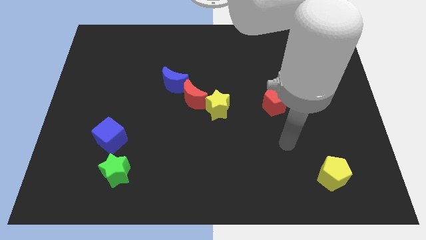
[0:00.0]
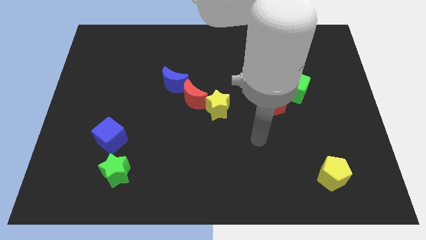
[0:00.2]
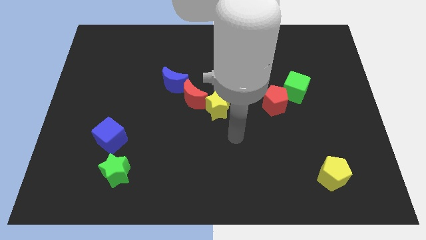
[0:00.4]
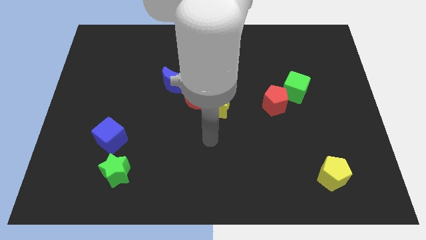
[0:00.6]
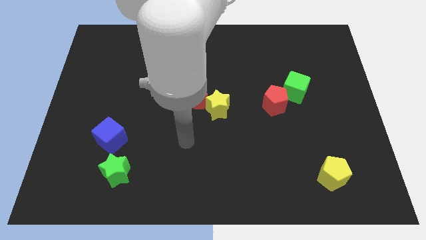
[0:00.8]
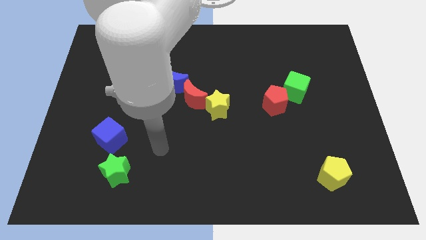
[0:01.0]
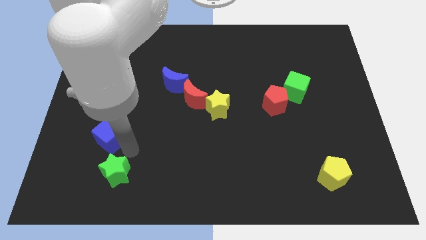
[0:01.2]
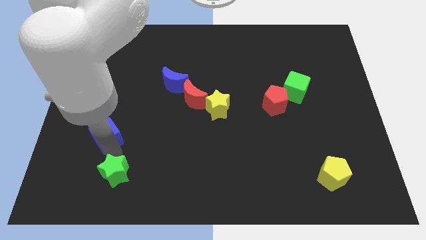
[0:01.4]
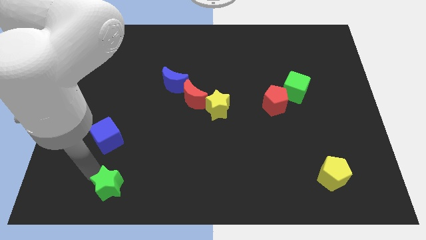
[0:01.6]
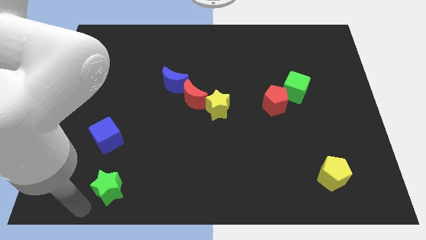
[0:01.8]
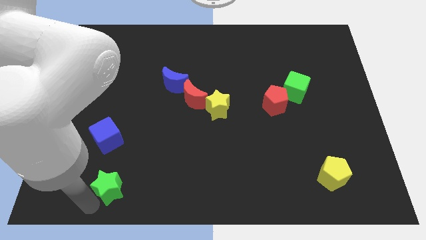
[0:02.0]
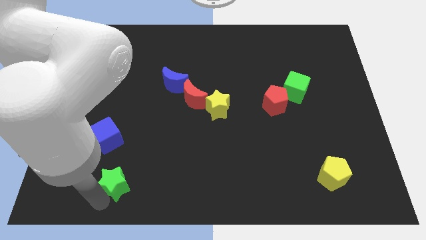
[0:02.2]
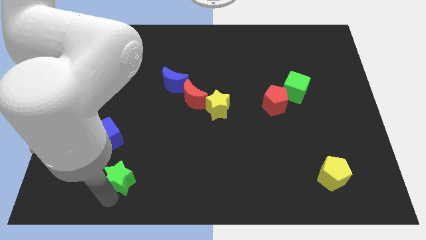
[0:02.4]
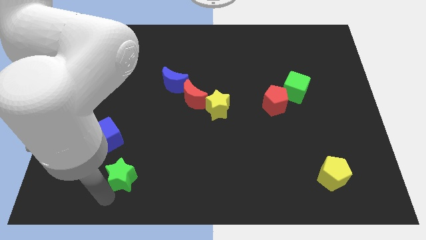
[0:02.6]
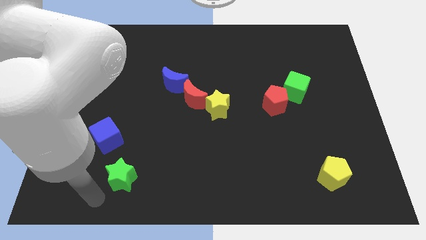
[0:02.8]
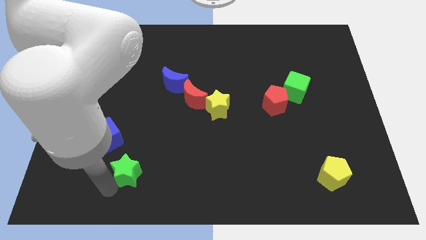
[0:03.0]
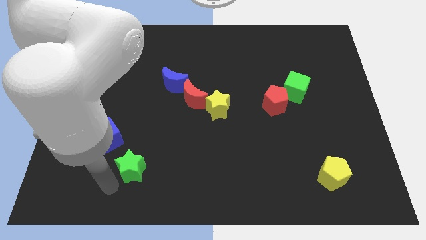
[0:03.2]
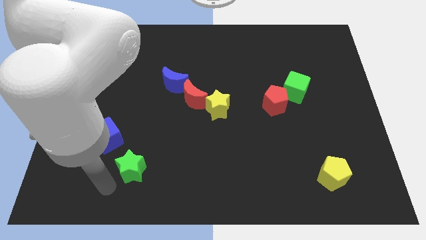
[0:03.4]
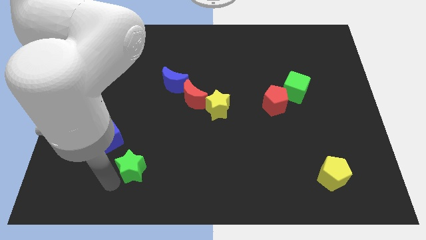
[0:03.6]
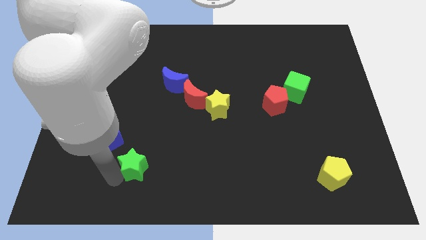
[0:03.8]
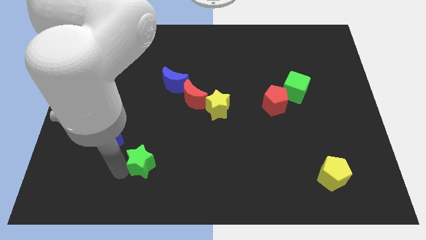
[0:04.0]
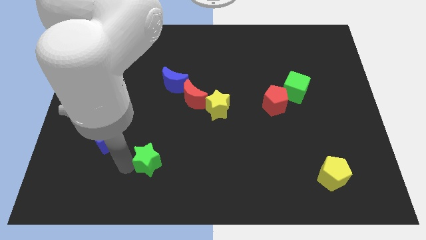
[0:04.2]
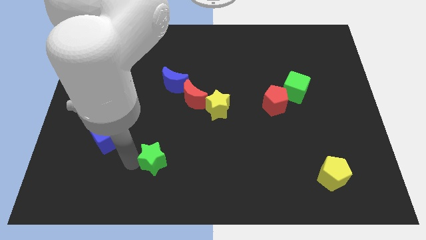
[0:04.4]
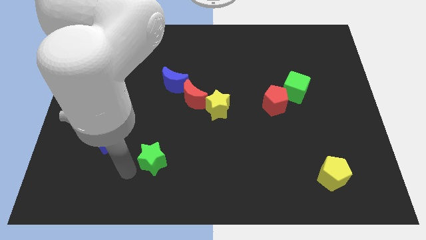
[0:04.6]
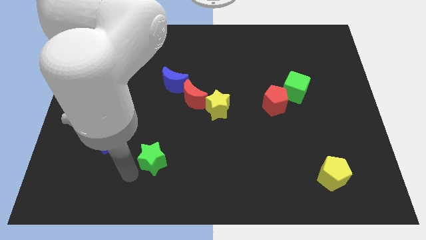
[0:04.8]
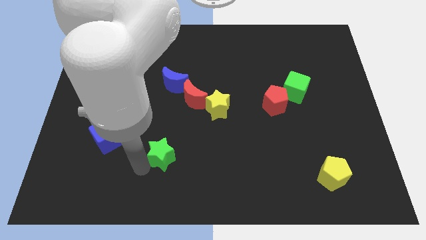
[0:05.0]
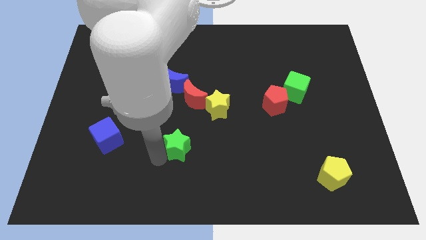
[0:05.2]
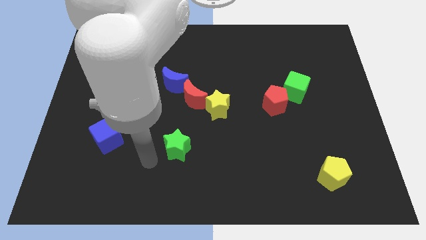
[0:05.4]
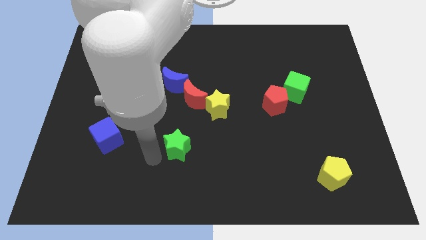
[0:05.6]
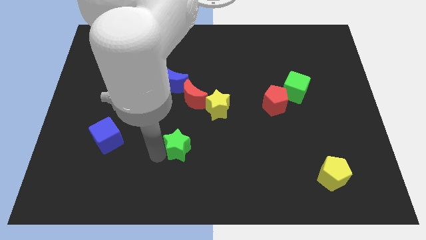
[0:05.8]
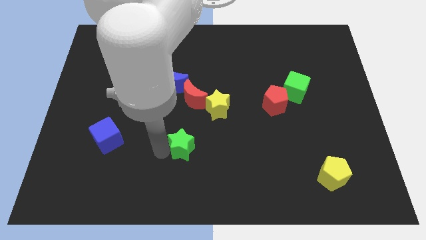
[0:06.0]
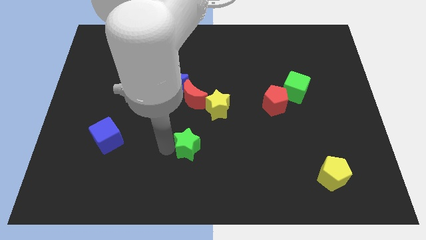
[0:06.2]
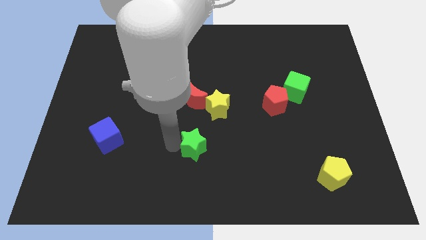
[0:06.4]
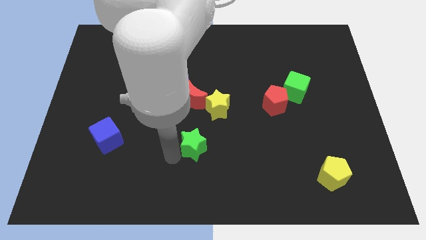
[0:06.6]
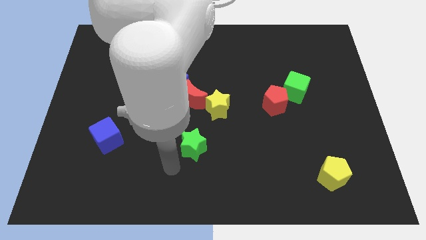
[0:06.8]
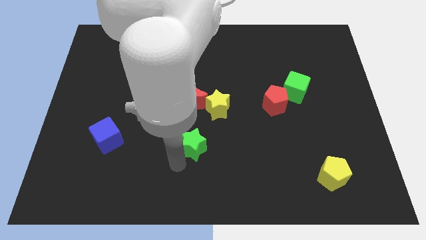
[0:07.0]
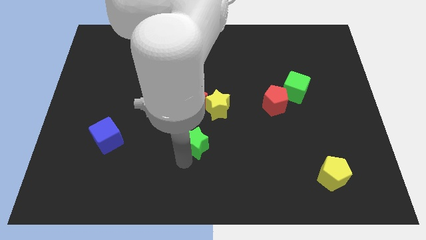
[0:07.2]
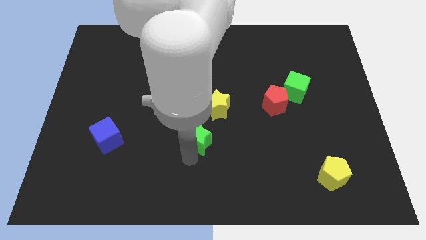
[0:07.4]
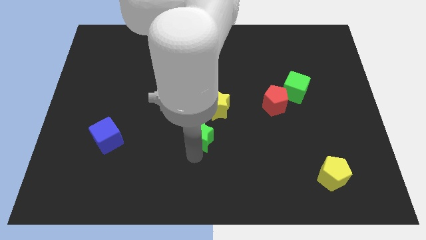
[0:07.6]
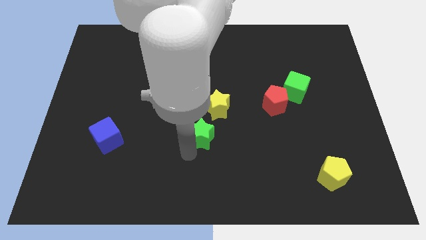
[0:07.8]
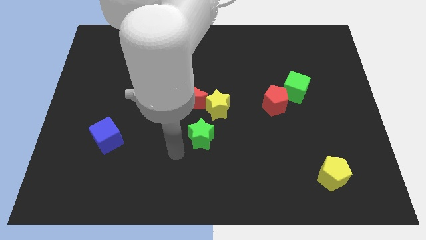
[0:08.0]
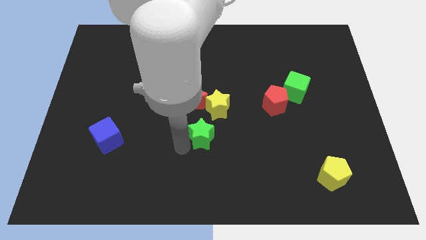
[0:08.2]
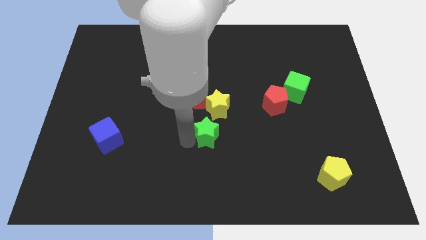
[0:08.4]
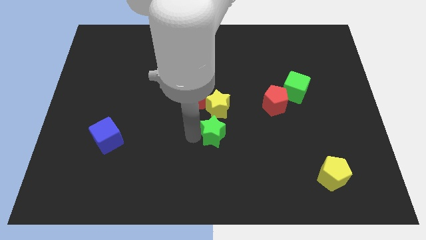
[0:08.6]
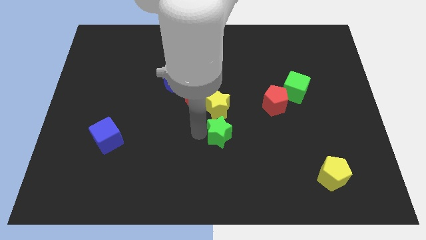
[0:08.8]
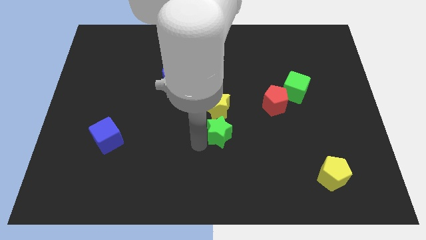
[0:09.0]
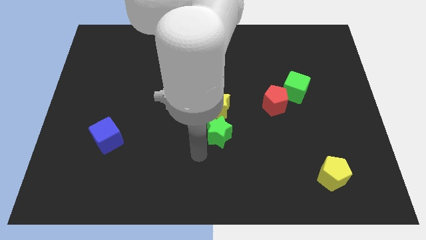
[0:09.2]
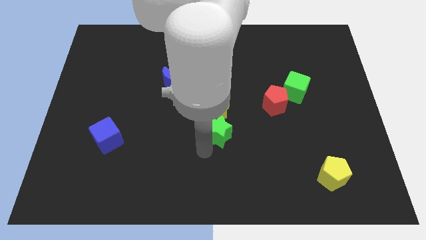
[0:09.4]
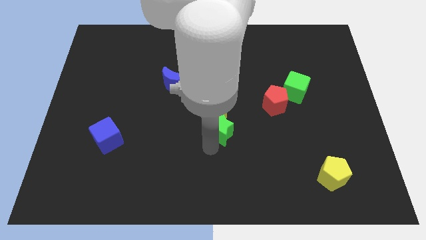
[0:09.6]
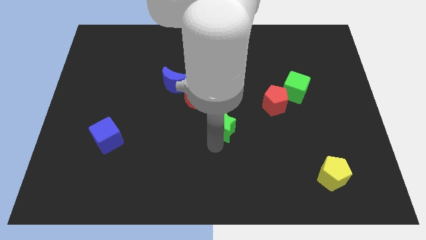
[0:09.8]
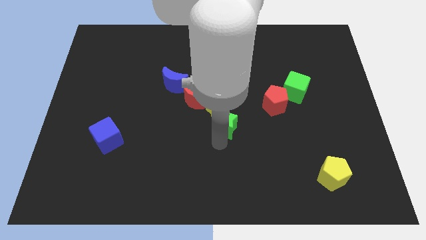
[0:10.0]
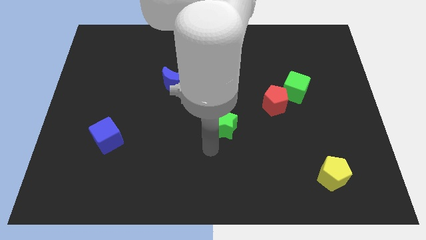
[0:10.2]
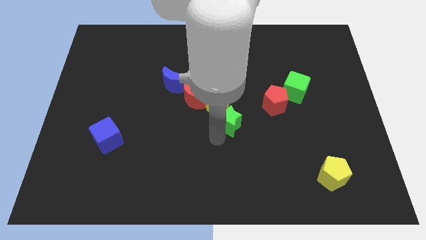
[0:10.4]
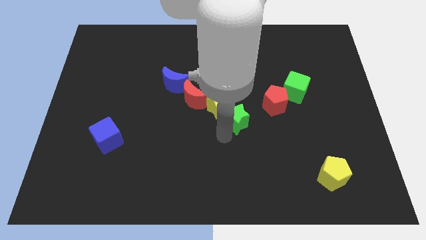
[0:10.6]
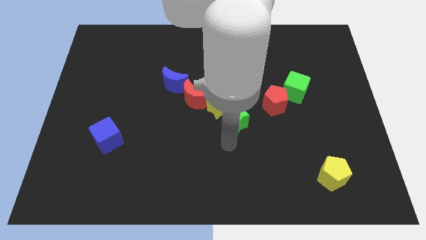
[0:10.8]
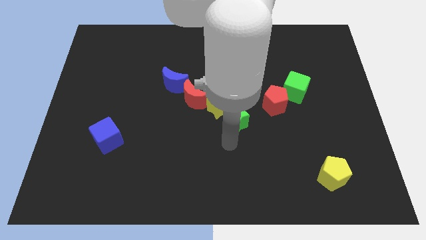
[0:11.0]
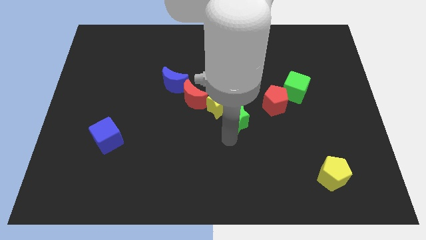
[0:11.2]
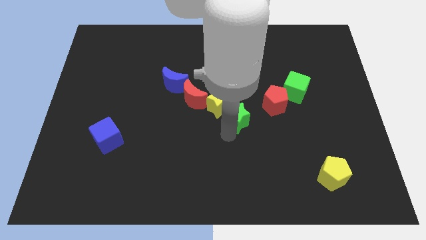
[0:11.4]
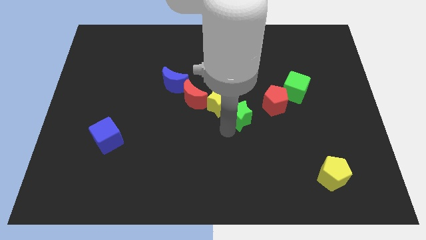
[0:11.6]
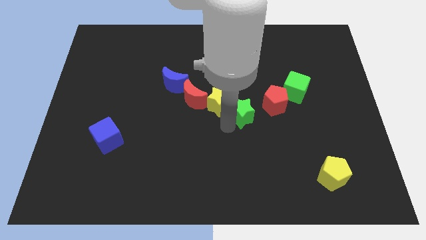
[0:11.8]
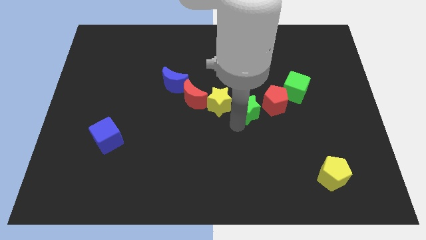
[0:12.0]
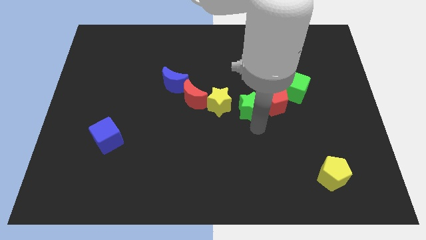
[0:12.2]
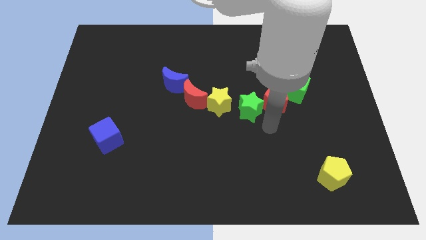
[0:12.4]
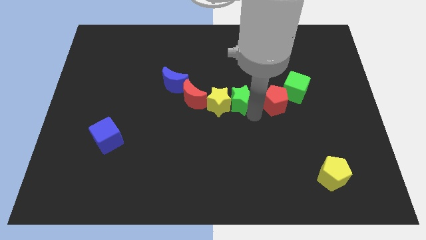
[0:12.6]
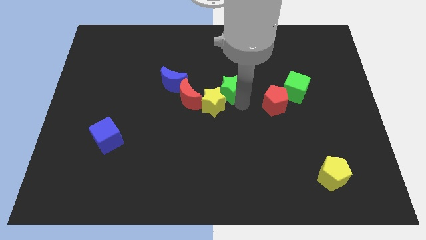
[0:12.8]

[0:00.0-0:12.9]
put the green star to the right of the blue moon

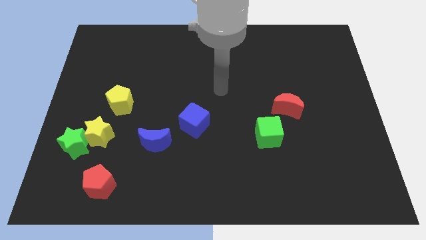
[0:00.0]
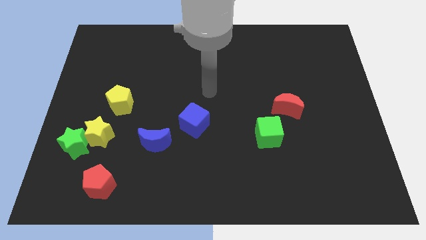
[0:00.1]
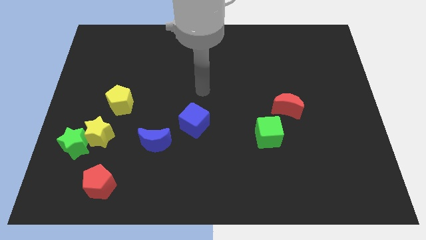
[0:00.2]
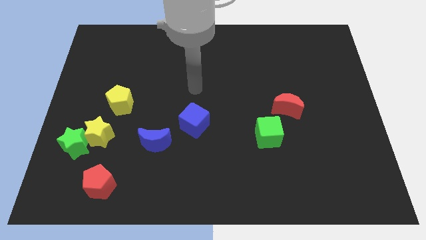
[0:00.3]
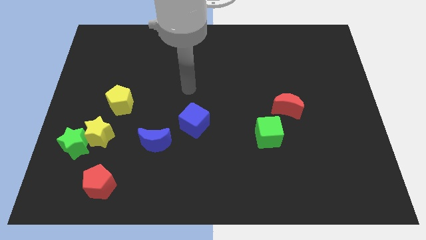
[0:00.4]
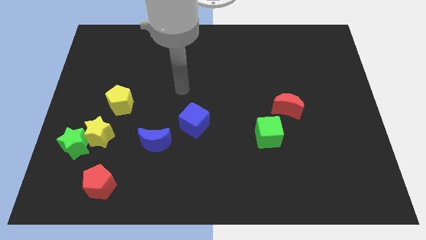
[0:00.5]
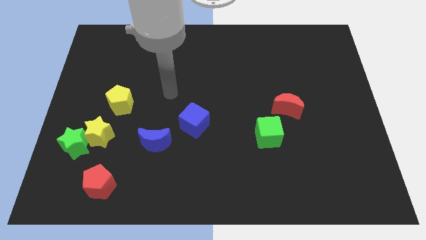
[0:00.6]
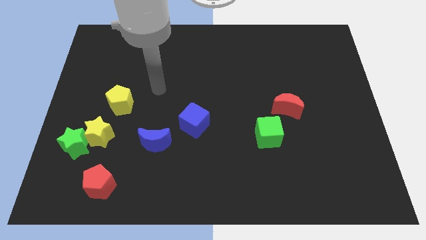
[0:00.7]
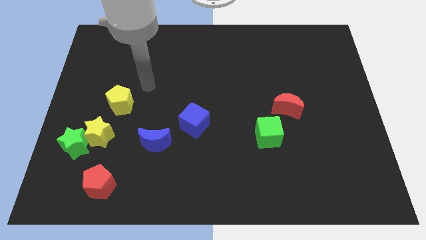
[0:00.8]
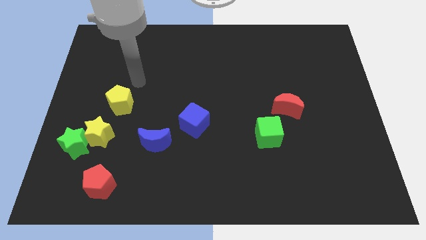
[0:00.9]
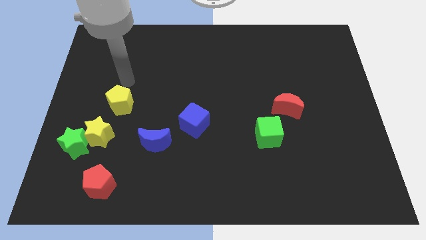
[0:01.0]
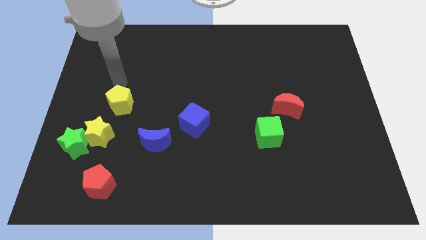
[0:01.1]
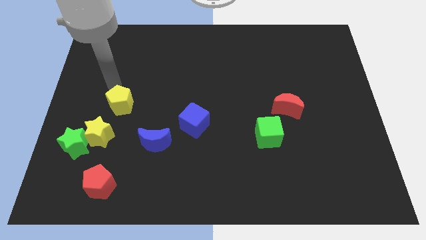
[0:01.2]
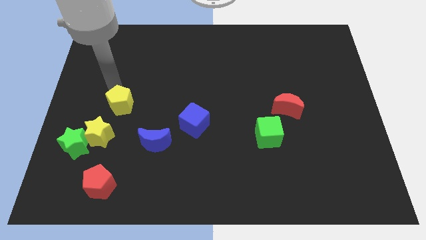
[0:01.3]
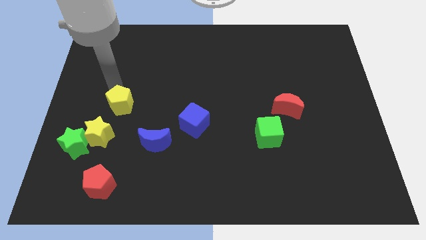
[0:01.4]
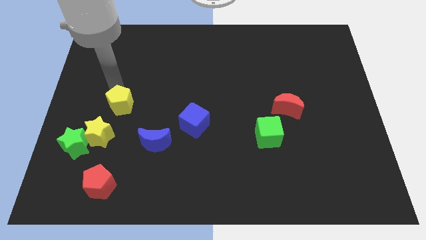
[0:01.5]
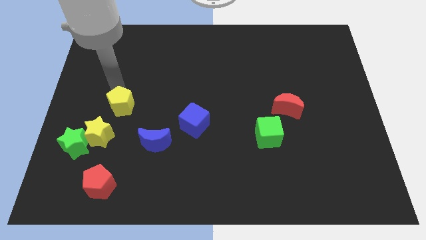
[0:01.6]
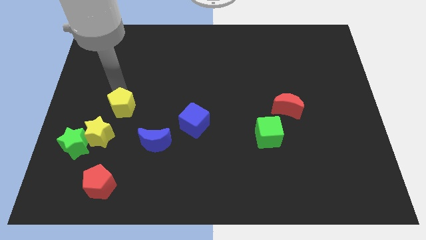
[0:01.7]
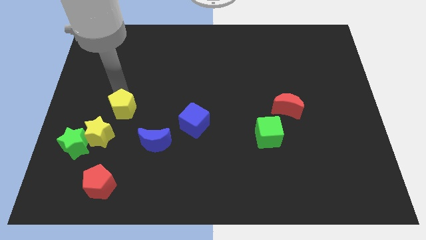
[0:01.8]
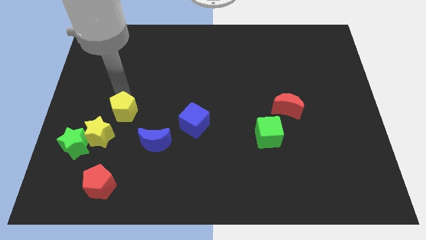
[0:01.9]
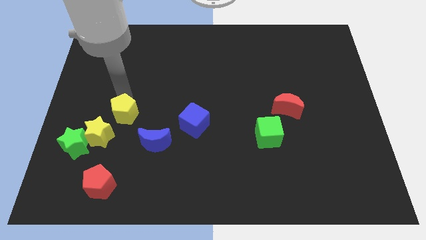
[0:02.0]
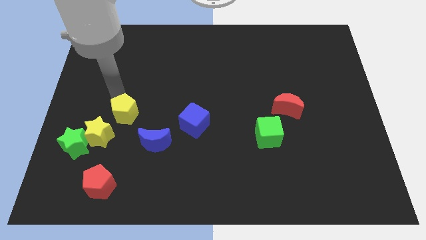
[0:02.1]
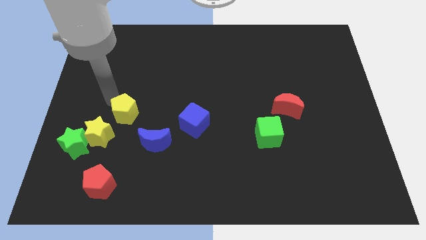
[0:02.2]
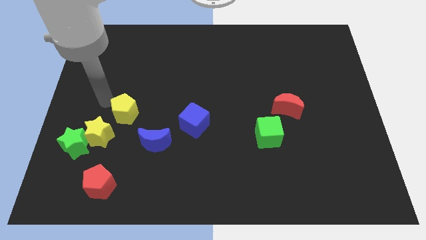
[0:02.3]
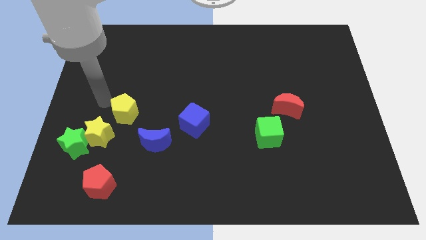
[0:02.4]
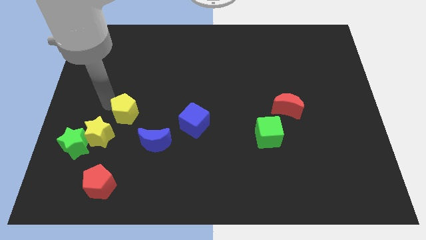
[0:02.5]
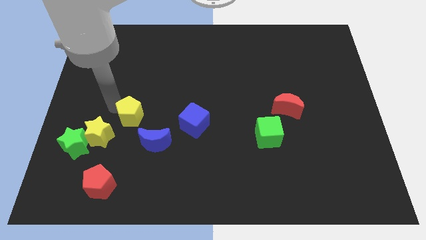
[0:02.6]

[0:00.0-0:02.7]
put the yellow pentagon to the left of the blue cube

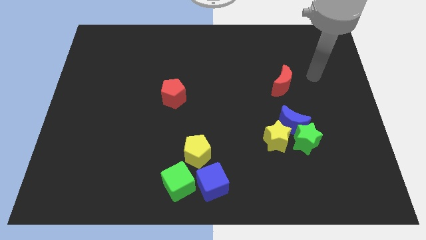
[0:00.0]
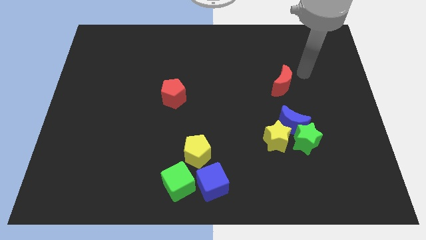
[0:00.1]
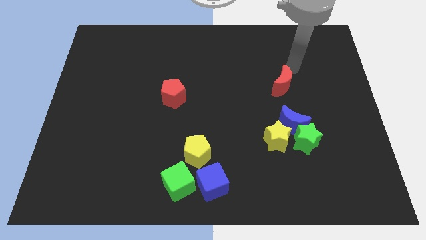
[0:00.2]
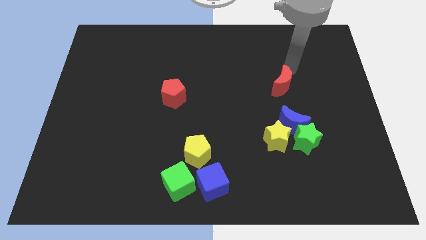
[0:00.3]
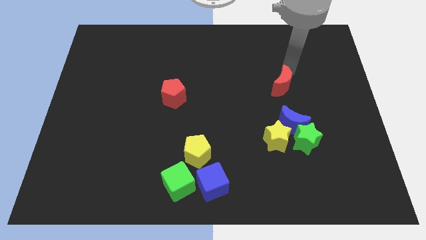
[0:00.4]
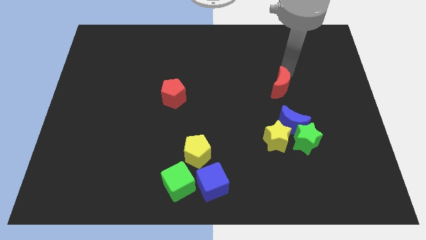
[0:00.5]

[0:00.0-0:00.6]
slide the red moon to the top side of the yellow star
